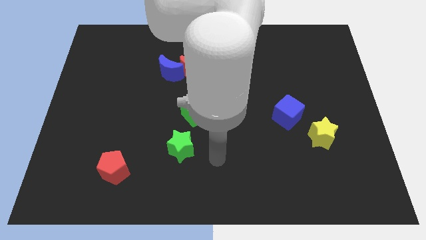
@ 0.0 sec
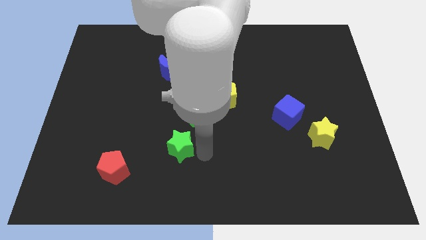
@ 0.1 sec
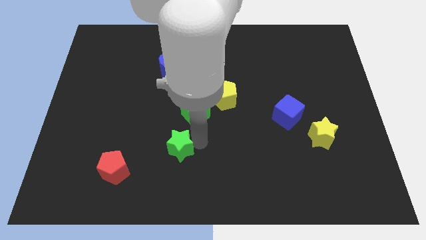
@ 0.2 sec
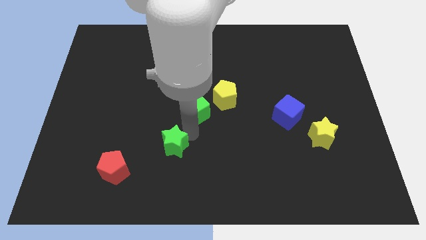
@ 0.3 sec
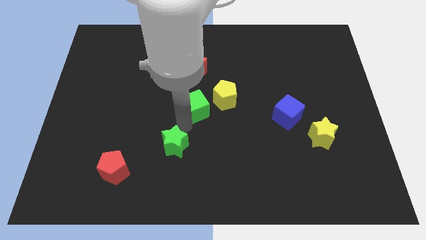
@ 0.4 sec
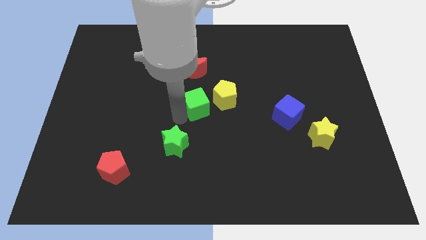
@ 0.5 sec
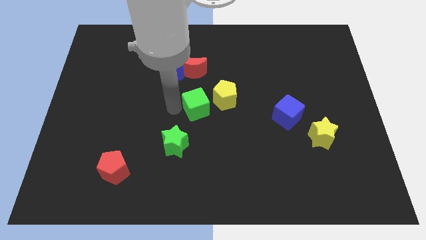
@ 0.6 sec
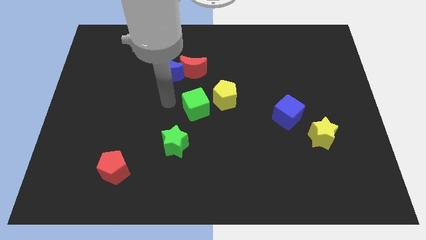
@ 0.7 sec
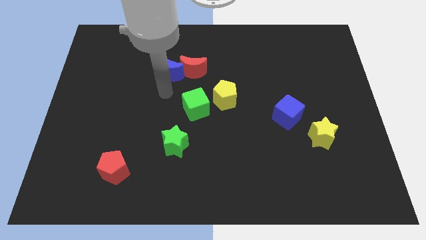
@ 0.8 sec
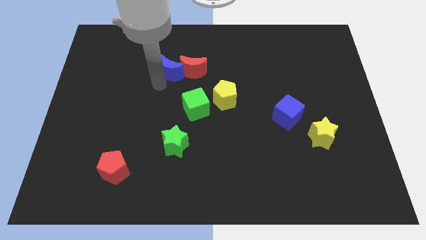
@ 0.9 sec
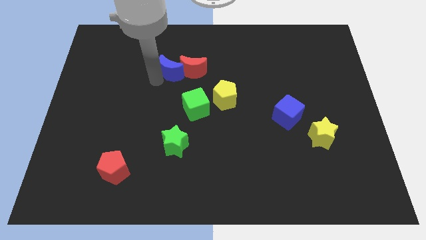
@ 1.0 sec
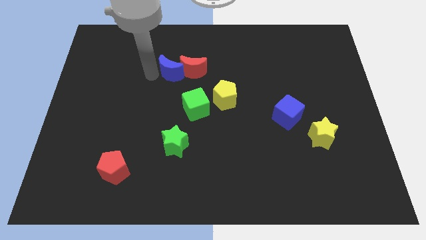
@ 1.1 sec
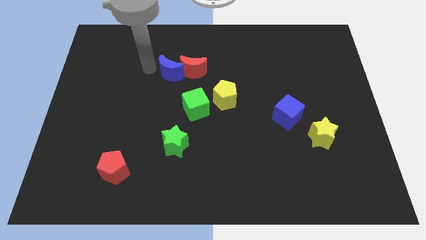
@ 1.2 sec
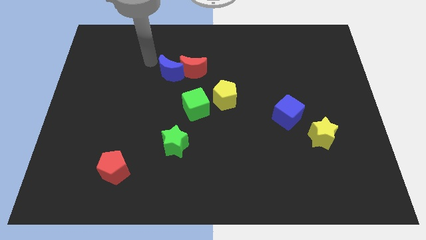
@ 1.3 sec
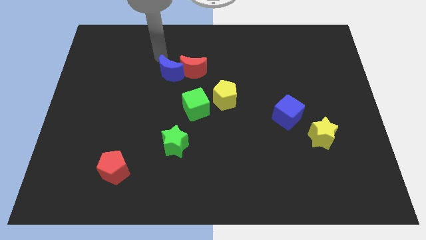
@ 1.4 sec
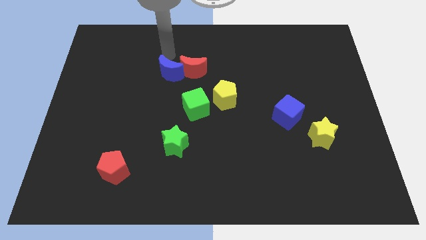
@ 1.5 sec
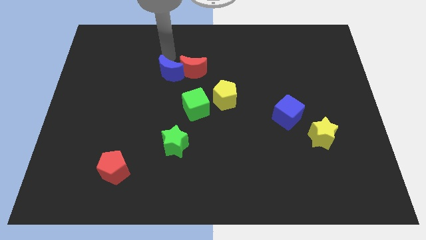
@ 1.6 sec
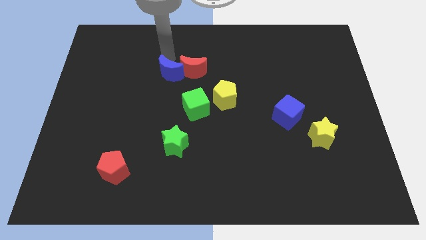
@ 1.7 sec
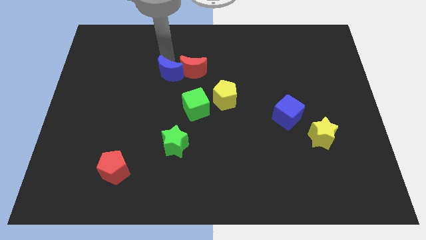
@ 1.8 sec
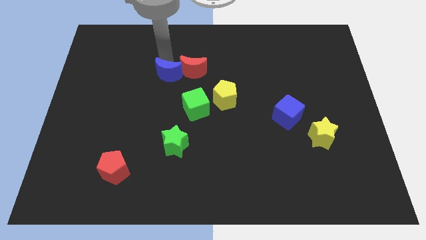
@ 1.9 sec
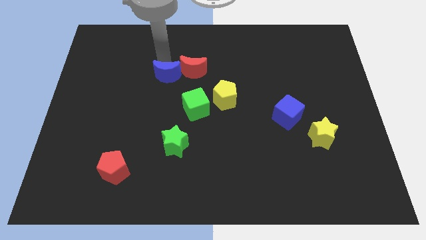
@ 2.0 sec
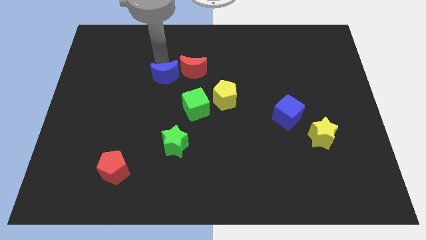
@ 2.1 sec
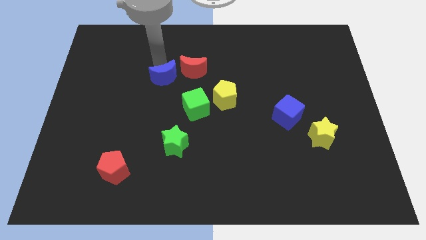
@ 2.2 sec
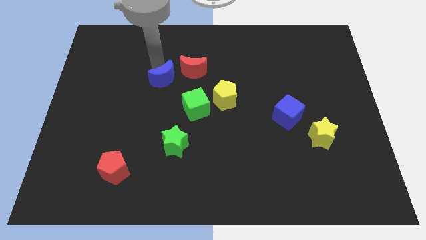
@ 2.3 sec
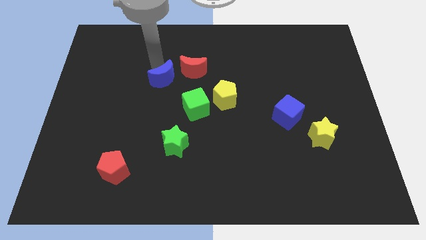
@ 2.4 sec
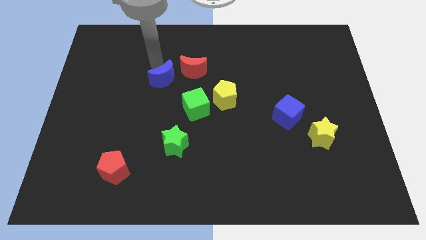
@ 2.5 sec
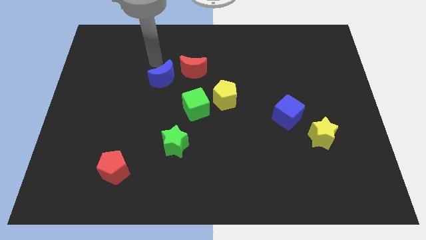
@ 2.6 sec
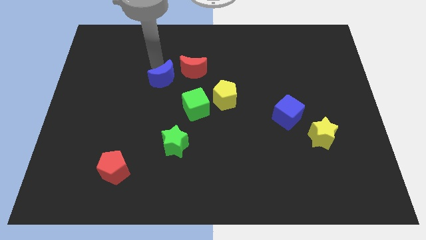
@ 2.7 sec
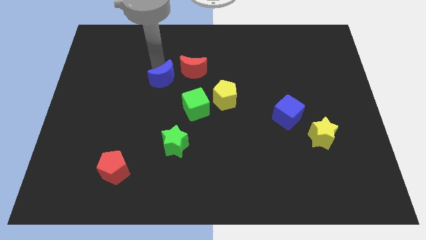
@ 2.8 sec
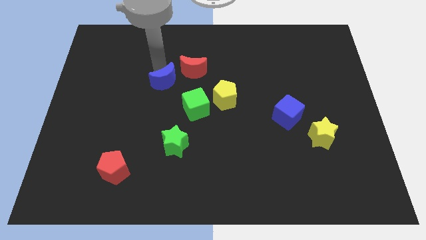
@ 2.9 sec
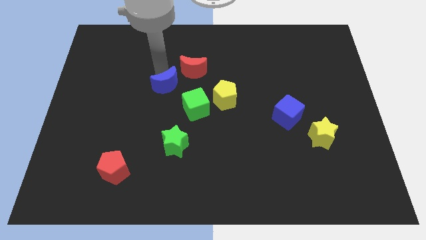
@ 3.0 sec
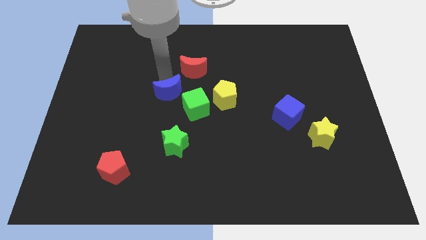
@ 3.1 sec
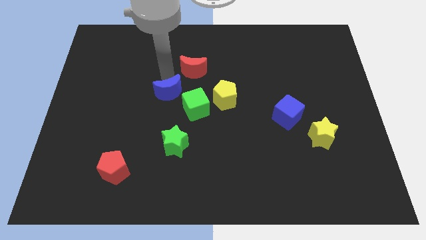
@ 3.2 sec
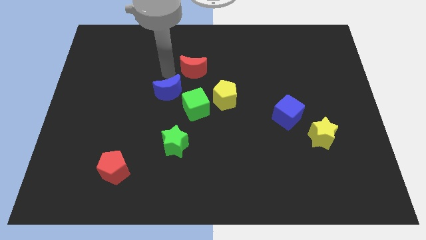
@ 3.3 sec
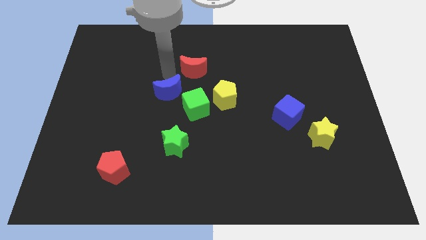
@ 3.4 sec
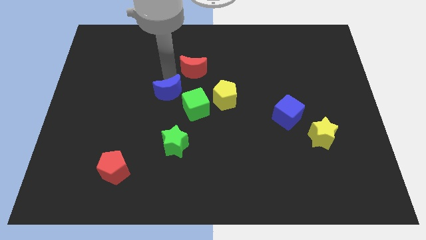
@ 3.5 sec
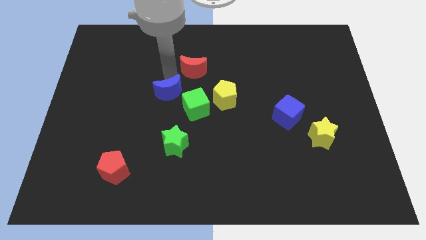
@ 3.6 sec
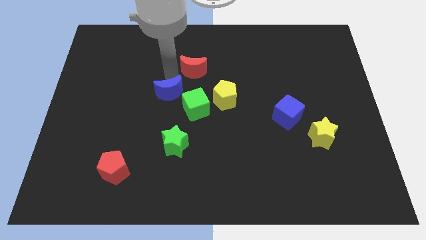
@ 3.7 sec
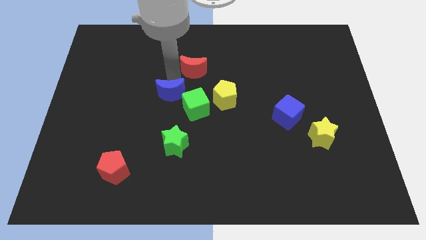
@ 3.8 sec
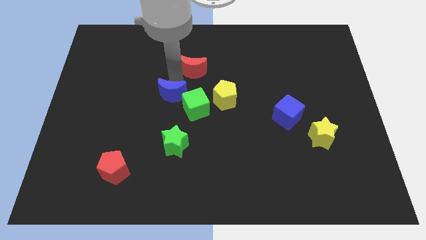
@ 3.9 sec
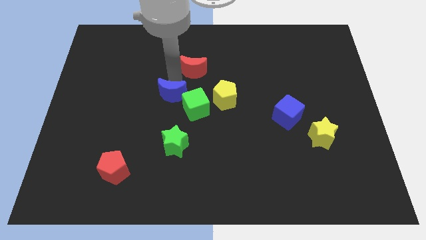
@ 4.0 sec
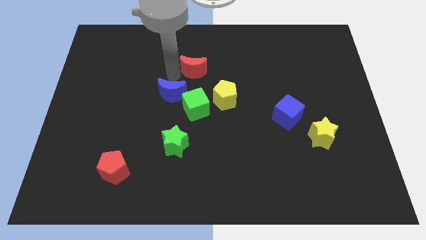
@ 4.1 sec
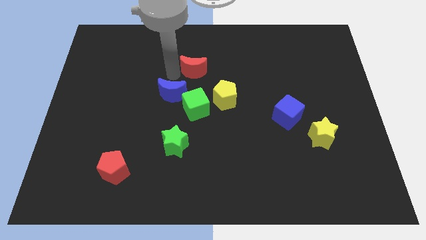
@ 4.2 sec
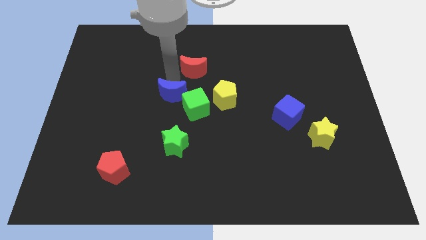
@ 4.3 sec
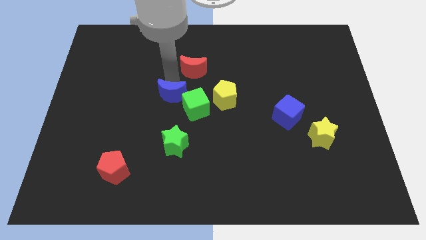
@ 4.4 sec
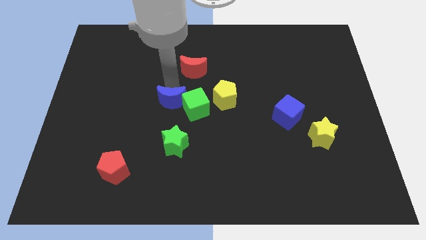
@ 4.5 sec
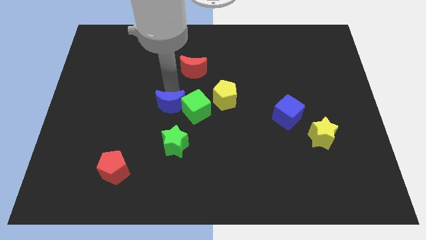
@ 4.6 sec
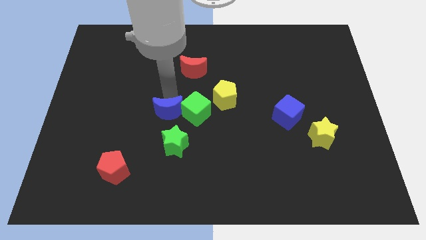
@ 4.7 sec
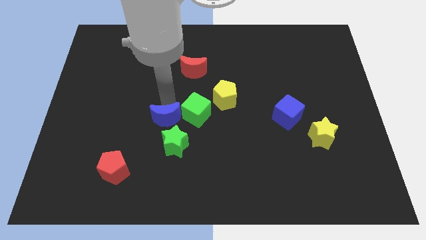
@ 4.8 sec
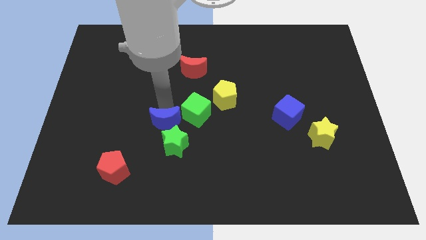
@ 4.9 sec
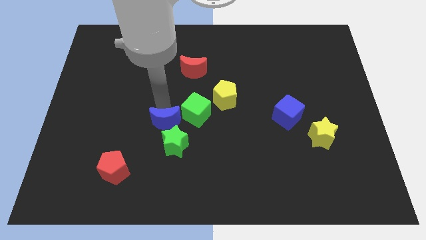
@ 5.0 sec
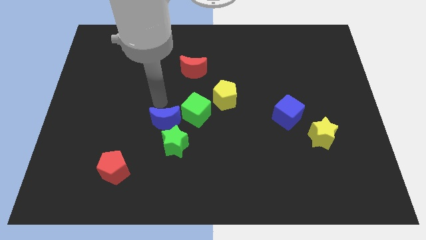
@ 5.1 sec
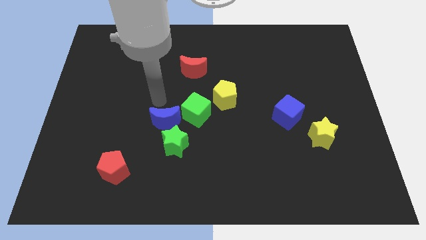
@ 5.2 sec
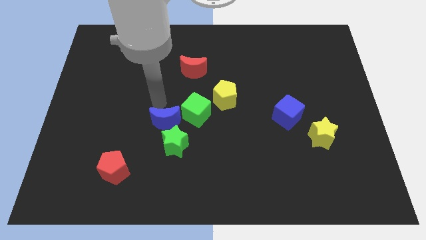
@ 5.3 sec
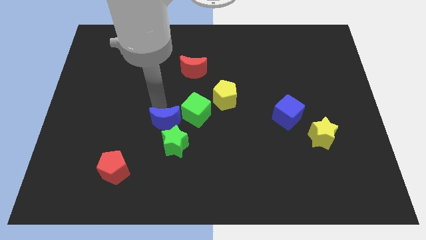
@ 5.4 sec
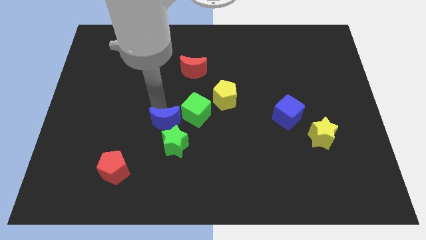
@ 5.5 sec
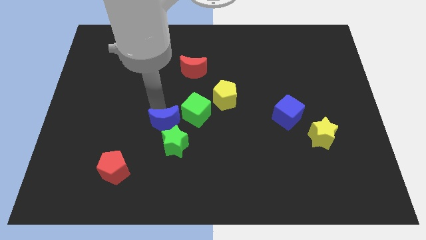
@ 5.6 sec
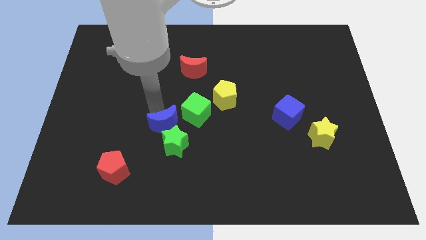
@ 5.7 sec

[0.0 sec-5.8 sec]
put the blue moon towards the green star

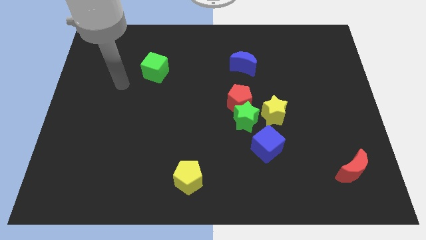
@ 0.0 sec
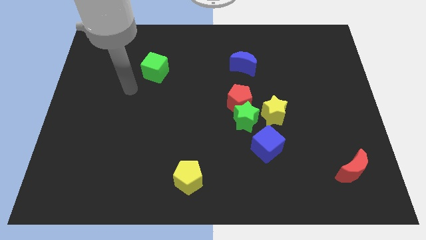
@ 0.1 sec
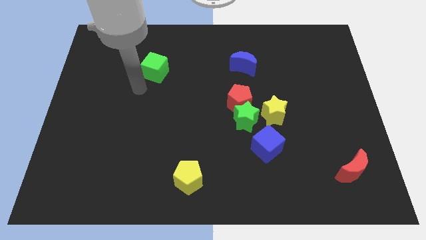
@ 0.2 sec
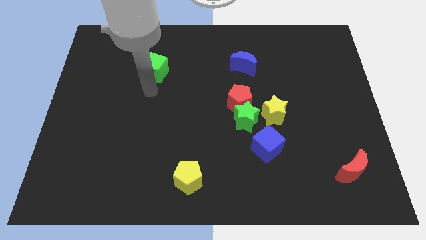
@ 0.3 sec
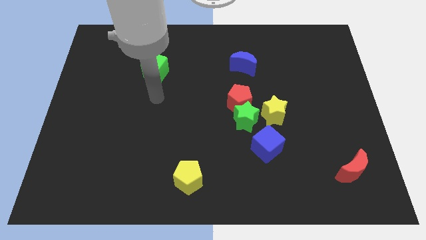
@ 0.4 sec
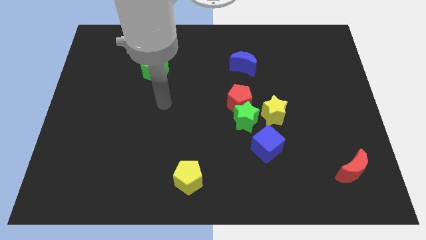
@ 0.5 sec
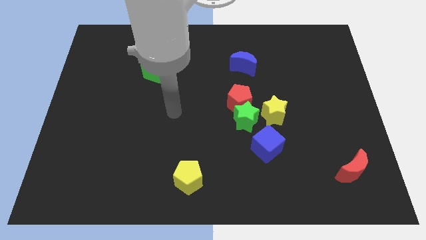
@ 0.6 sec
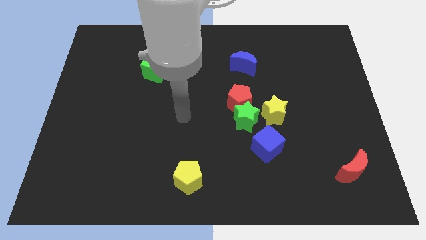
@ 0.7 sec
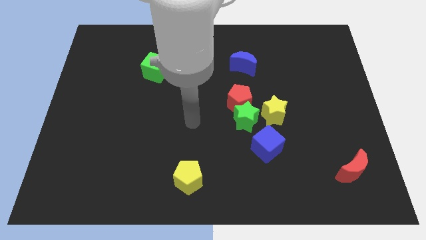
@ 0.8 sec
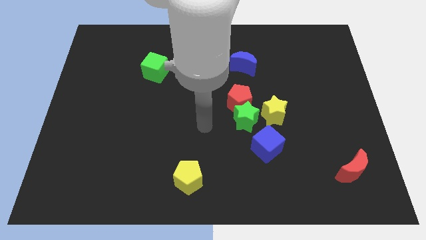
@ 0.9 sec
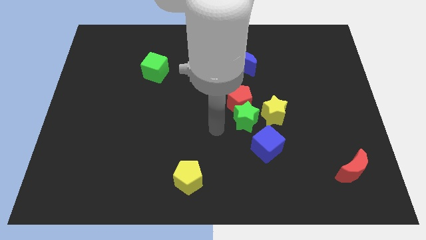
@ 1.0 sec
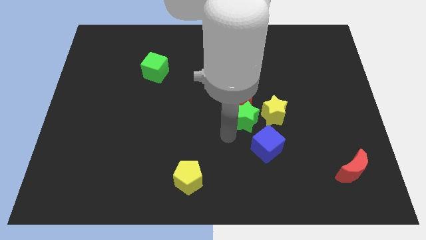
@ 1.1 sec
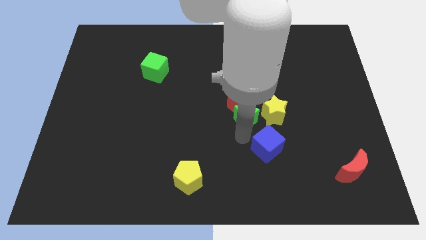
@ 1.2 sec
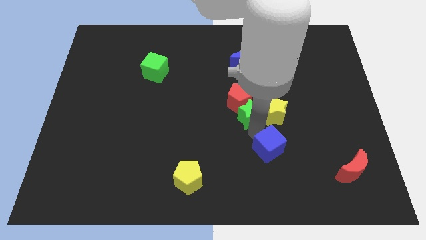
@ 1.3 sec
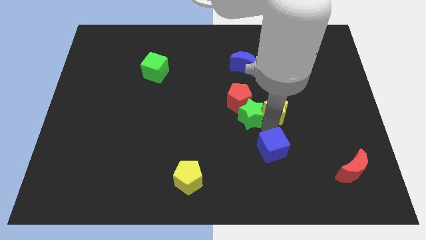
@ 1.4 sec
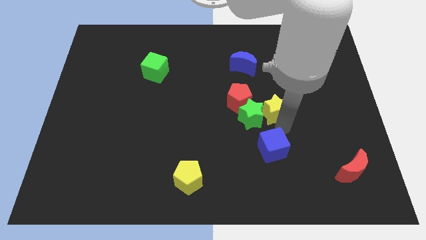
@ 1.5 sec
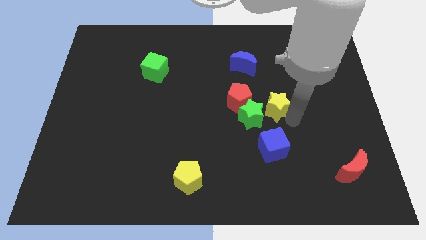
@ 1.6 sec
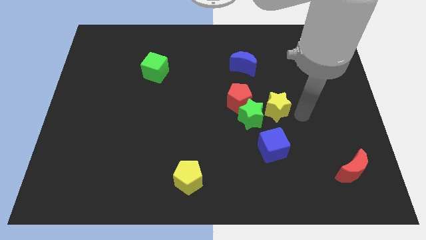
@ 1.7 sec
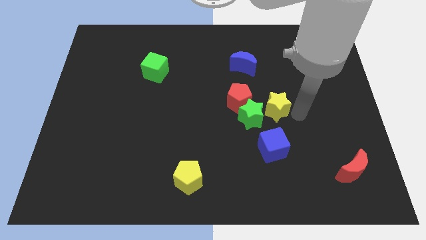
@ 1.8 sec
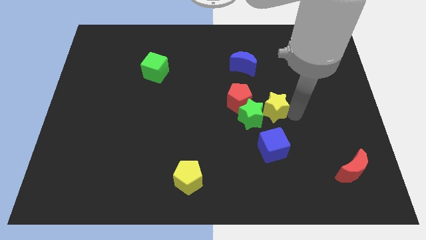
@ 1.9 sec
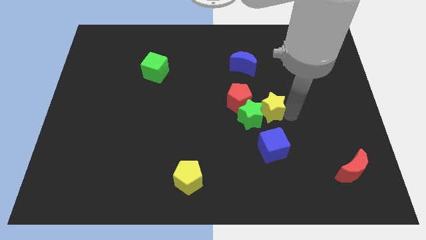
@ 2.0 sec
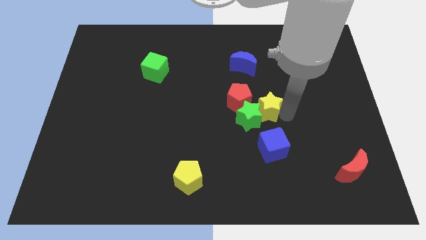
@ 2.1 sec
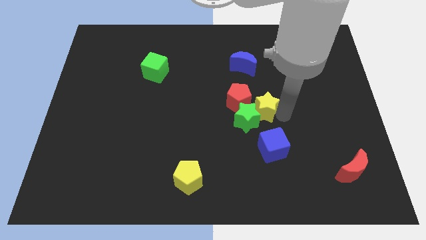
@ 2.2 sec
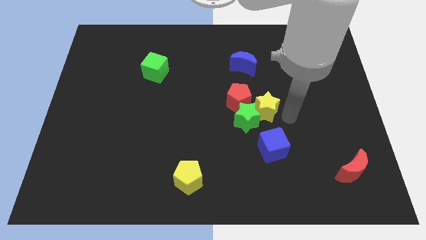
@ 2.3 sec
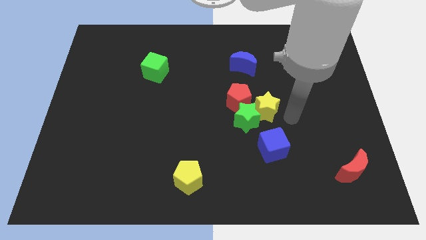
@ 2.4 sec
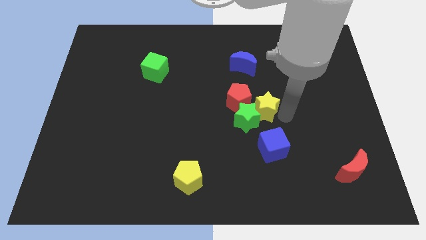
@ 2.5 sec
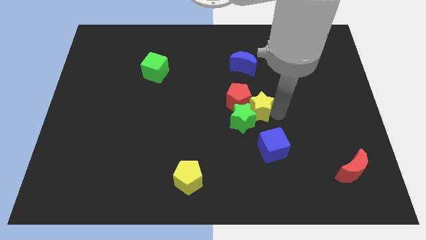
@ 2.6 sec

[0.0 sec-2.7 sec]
move the yellow star towards the red pentagon
